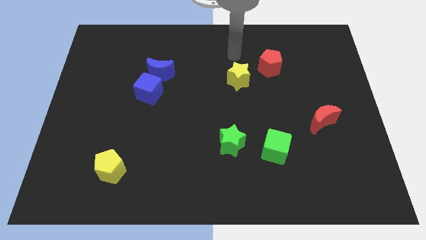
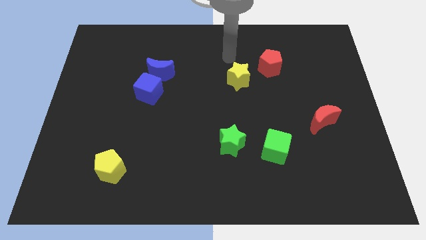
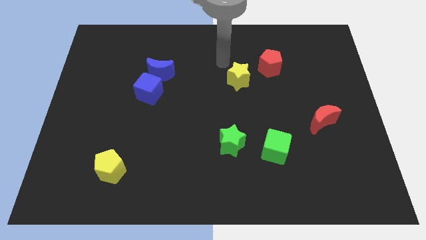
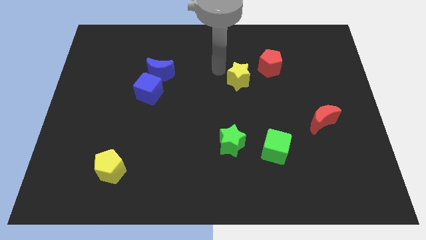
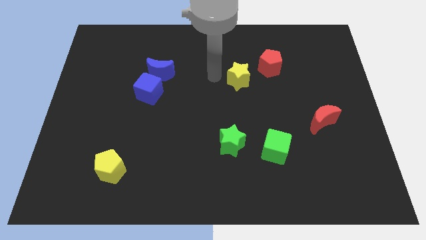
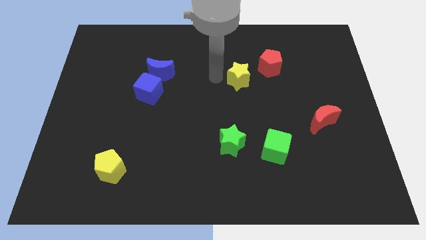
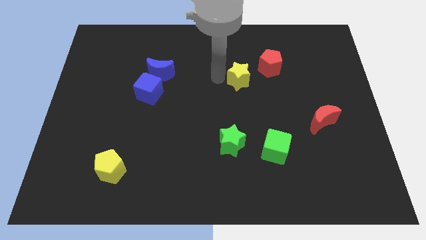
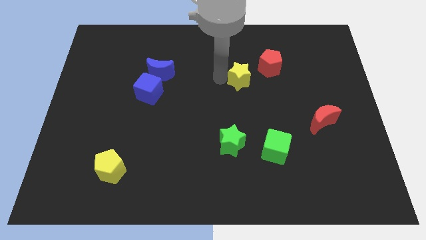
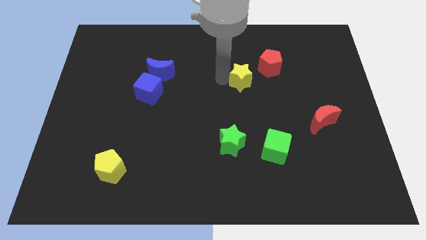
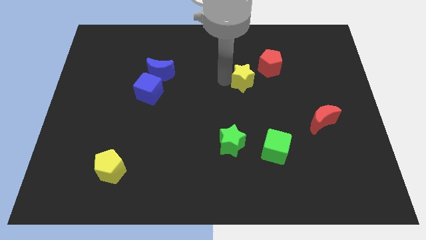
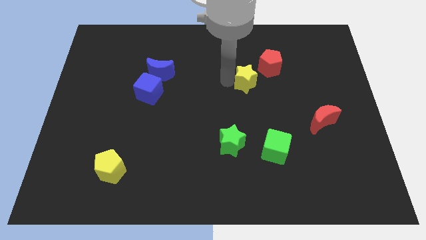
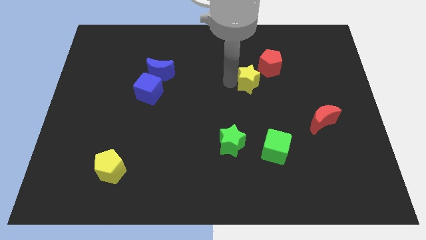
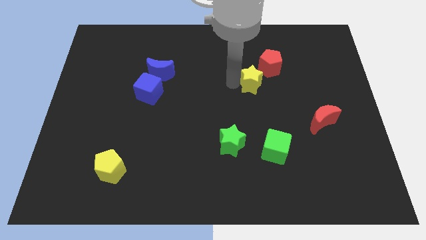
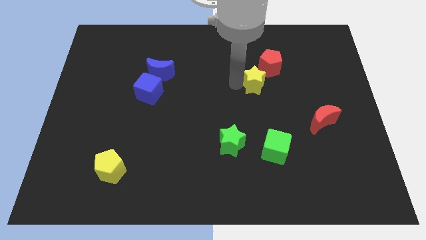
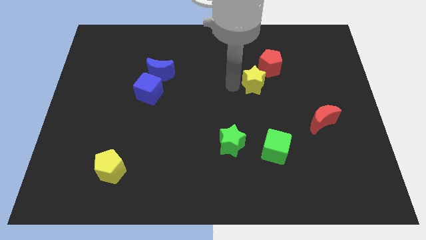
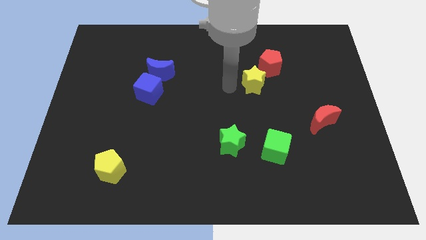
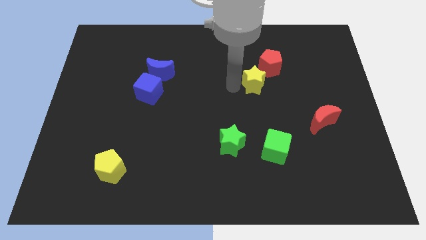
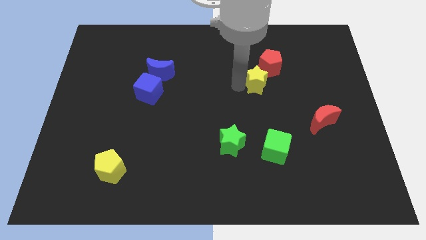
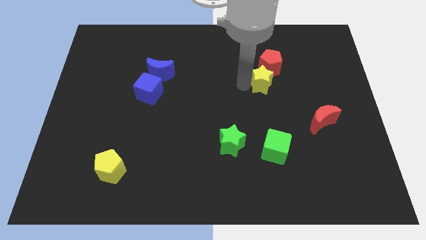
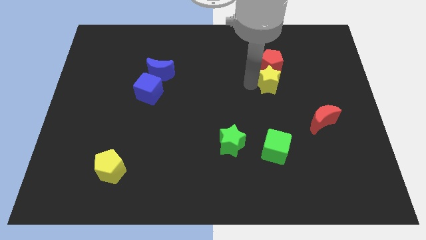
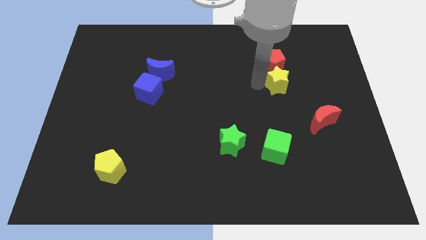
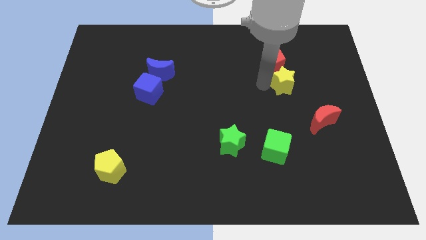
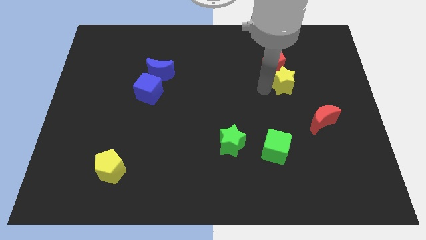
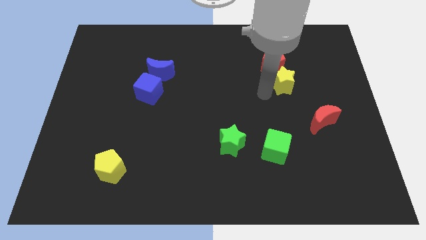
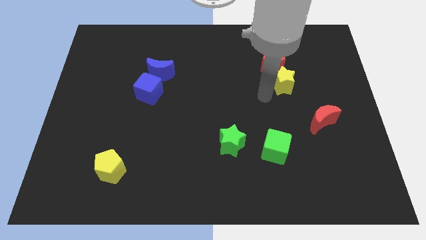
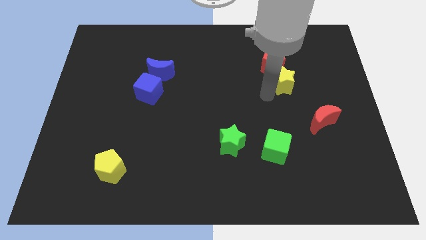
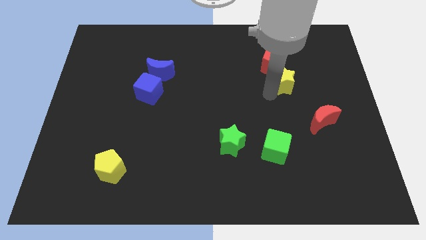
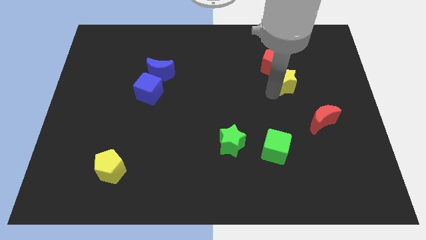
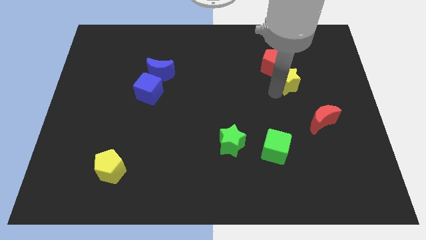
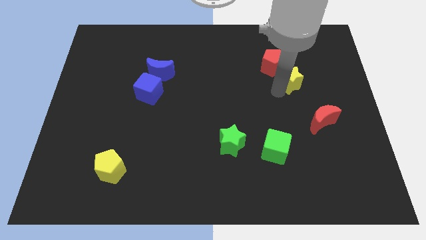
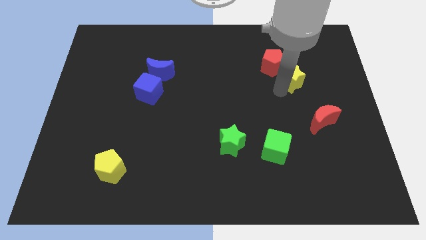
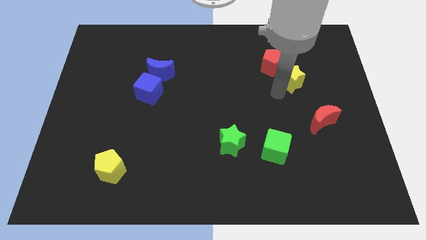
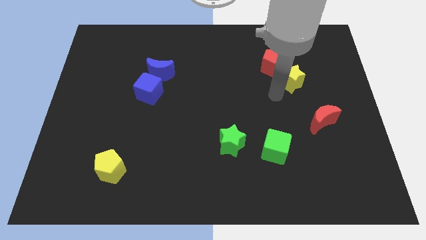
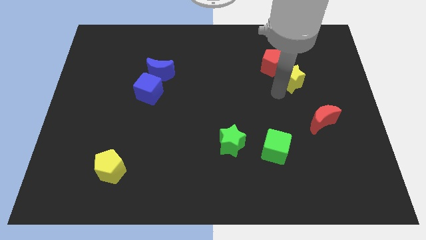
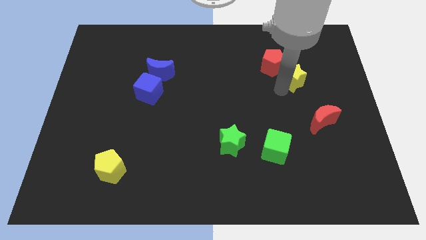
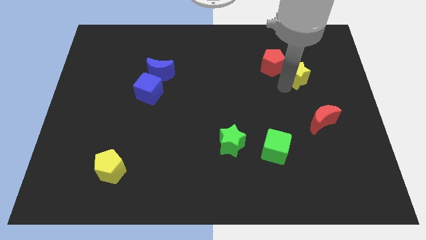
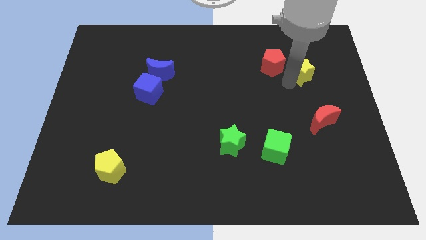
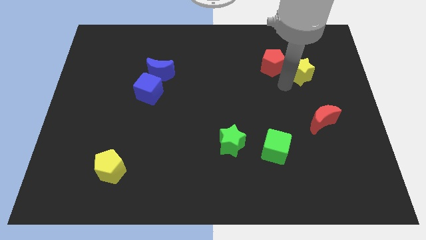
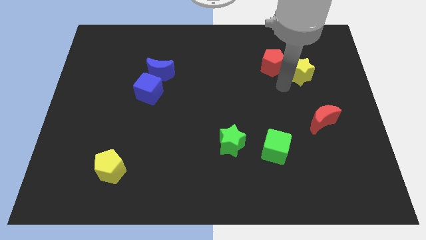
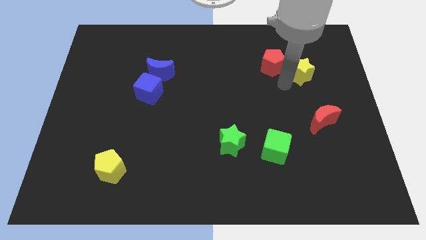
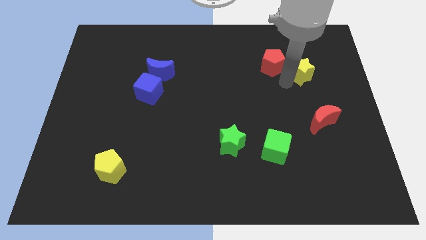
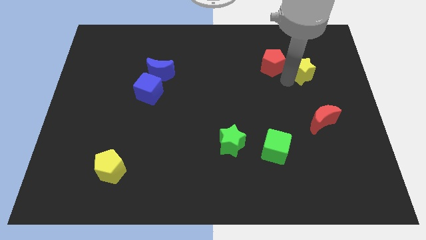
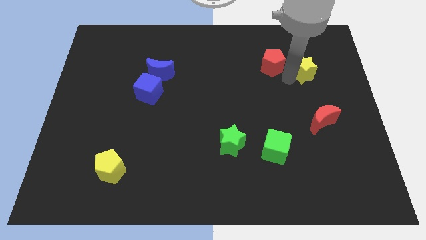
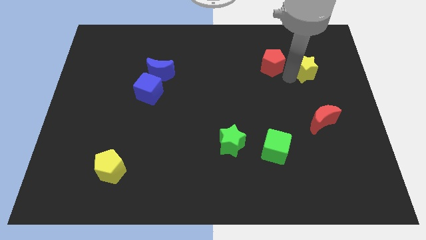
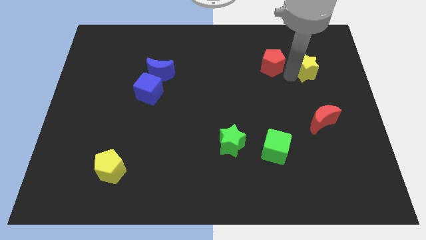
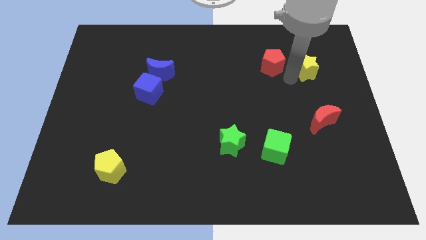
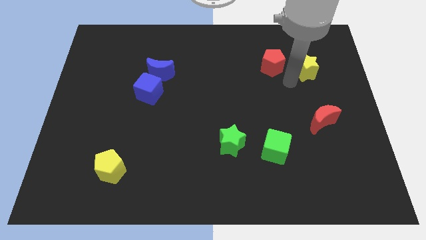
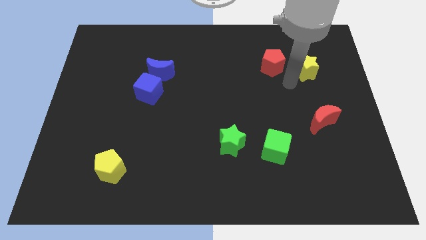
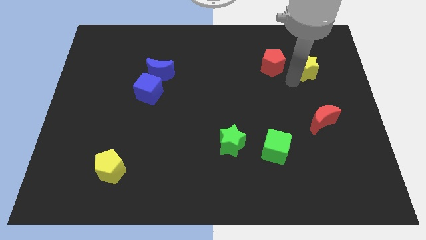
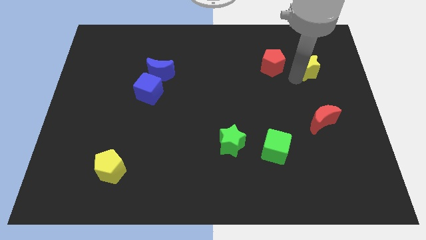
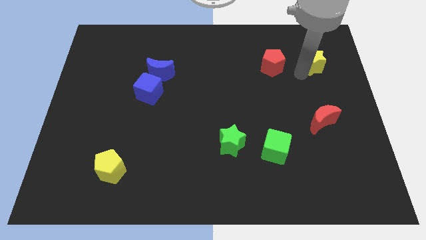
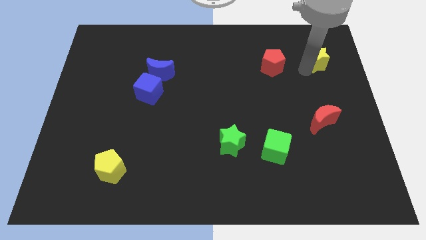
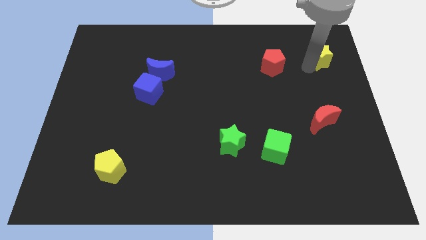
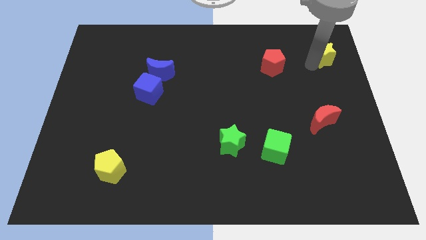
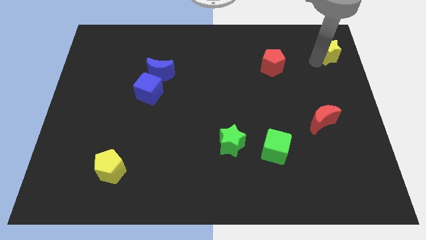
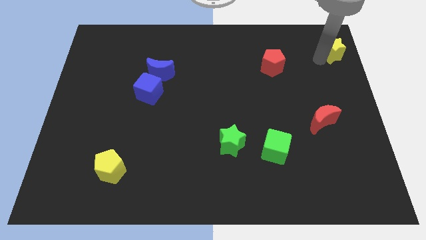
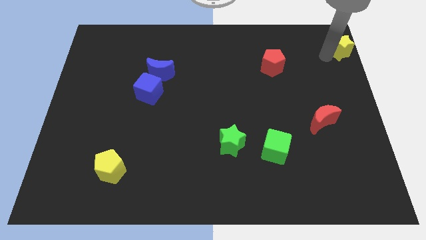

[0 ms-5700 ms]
put the yellow star to the top right

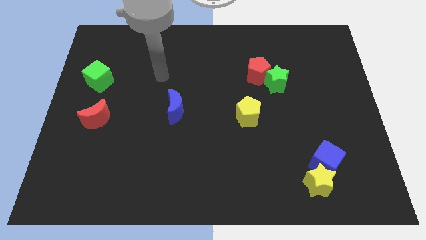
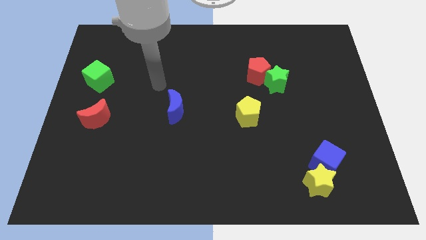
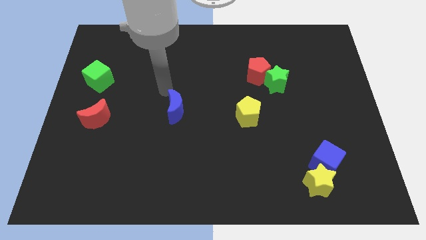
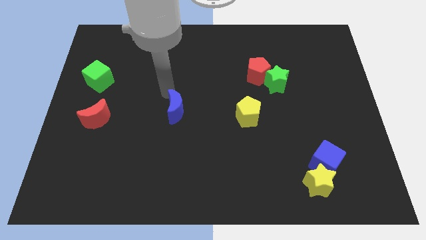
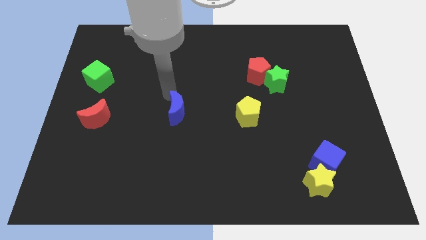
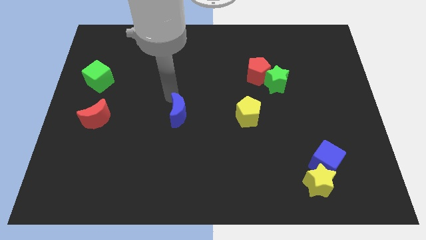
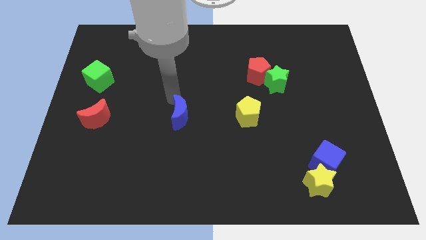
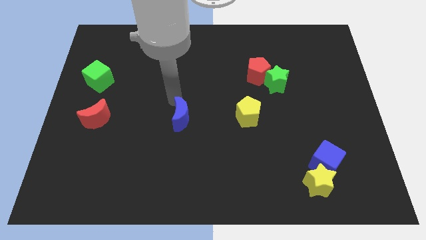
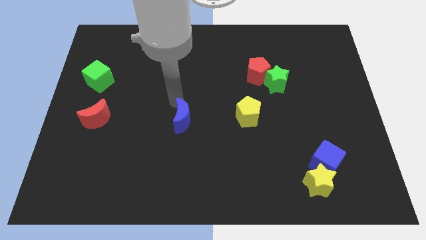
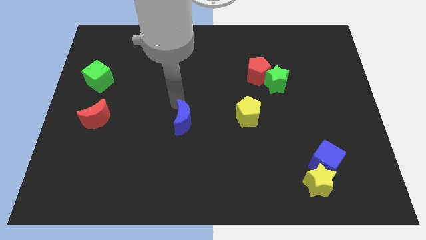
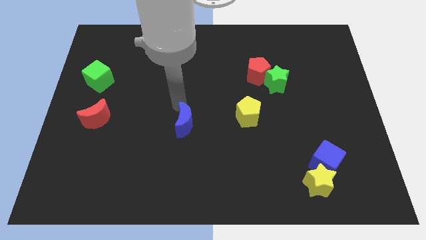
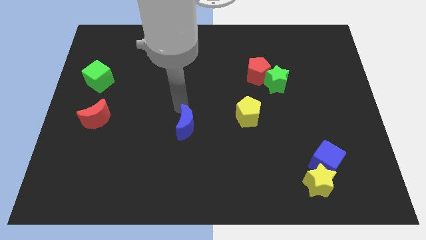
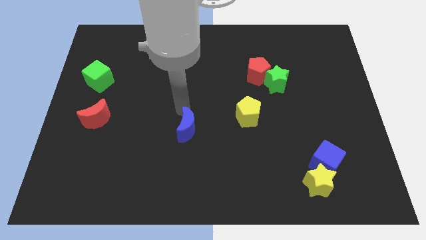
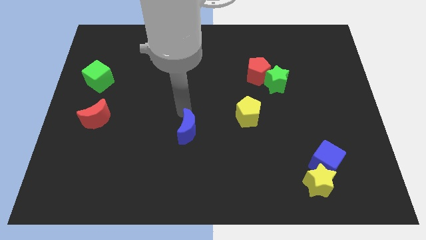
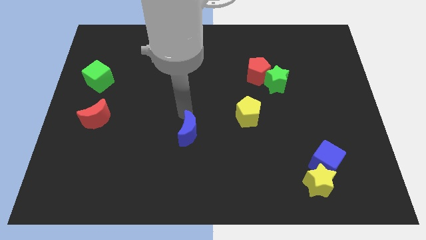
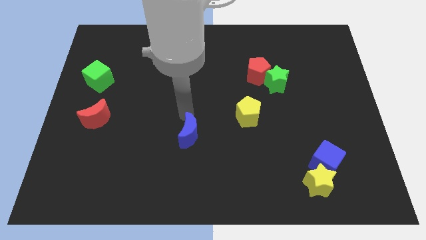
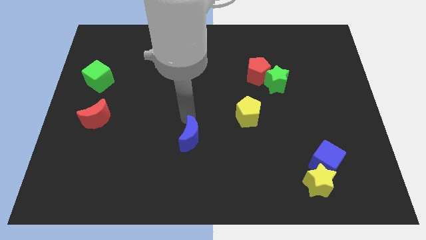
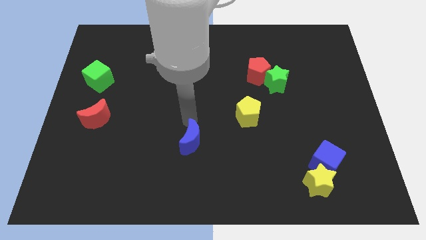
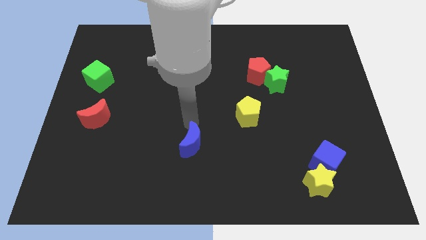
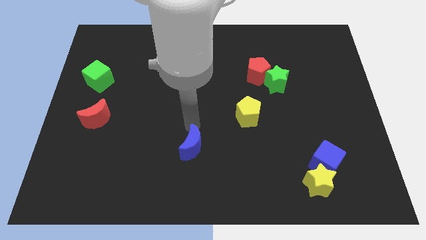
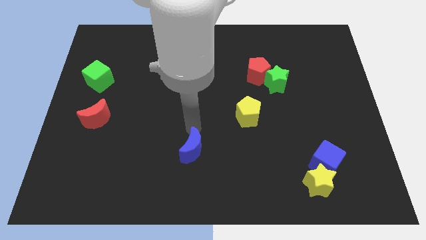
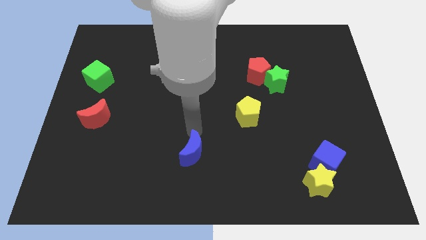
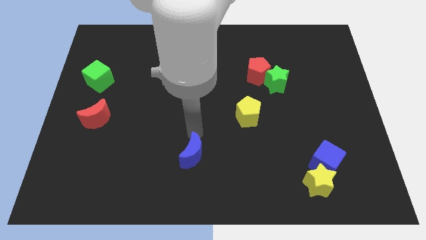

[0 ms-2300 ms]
slide the blue moon to the bottom
